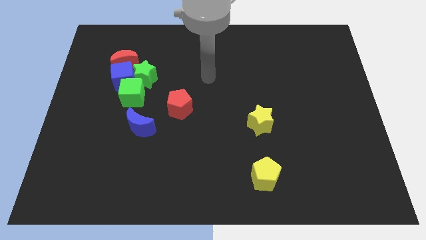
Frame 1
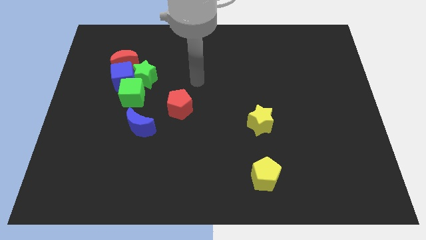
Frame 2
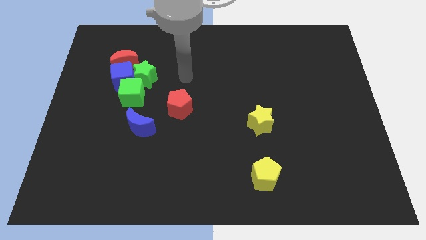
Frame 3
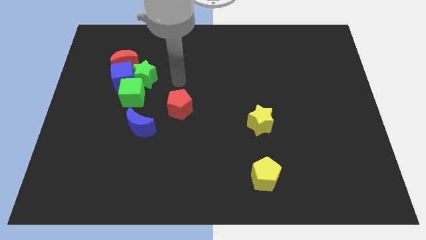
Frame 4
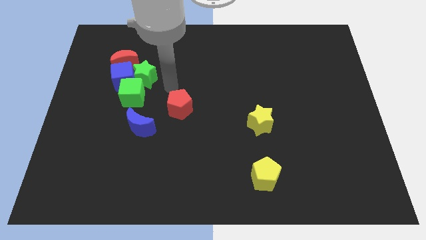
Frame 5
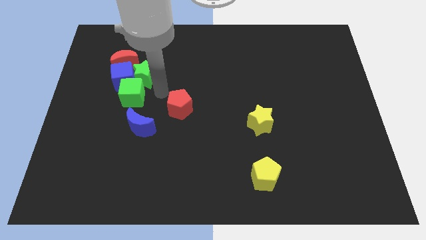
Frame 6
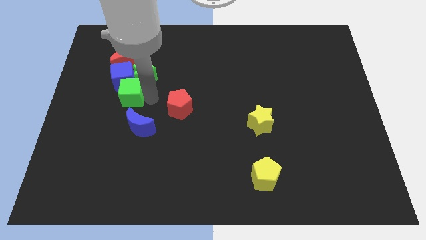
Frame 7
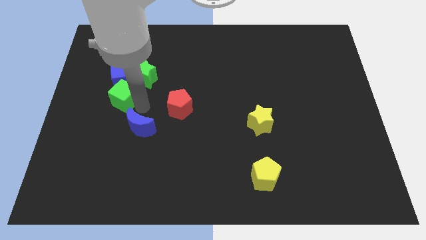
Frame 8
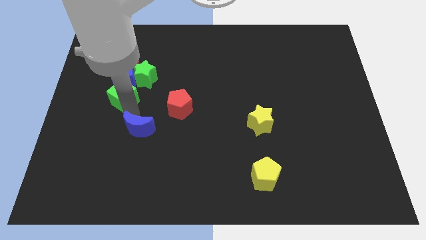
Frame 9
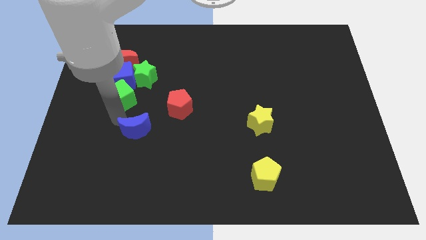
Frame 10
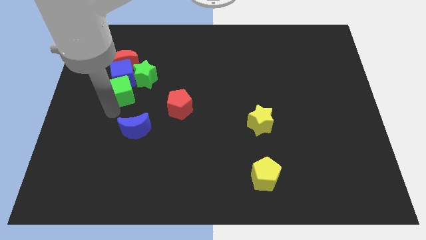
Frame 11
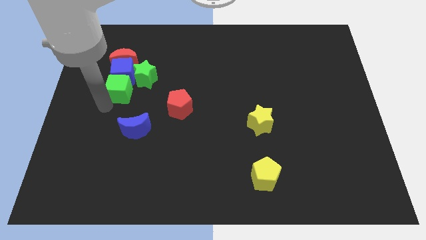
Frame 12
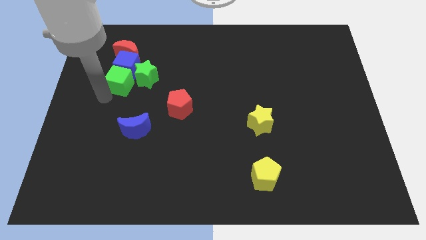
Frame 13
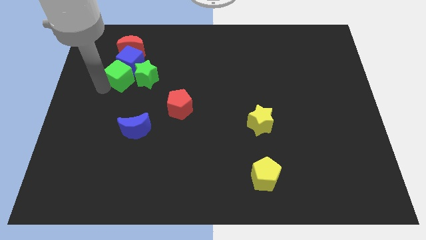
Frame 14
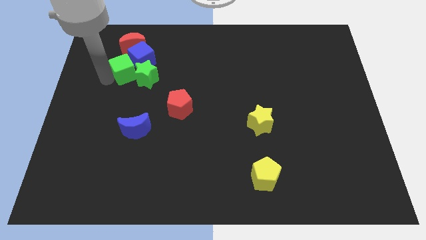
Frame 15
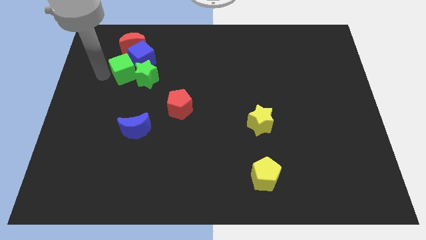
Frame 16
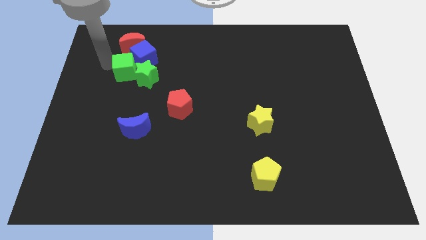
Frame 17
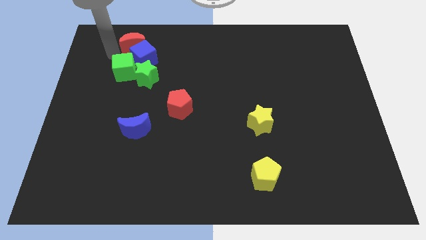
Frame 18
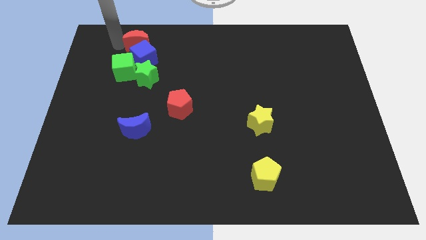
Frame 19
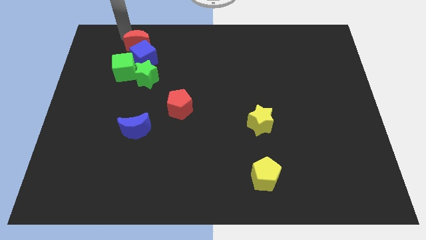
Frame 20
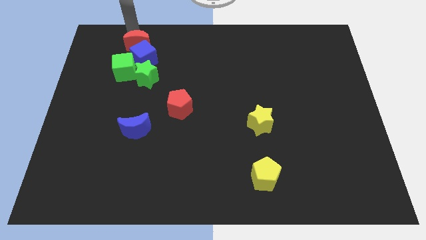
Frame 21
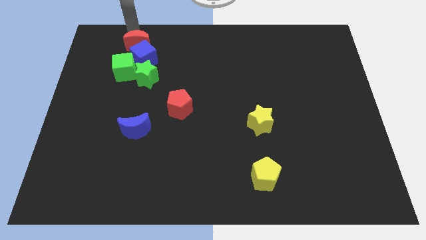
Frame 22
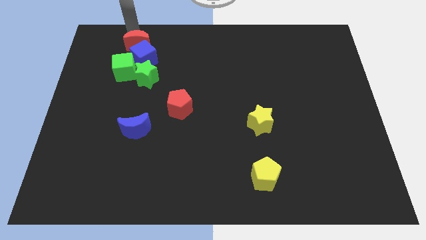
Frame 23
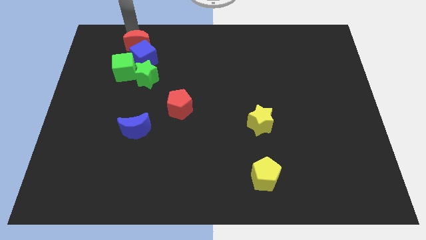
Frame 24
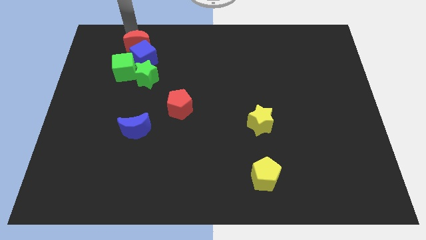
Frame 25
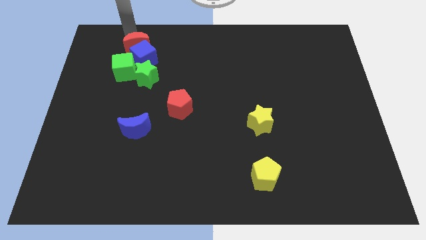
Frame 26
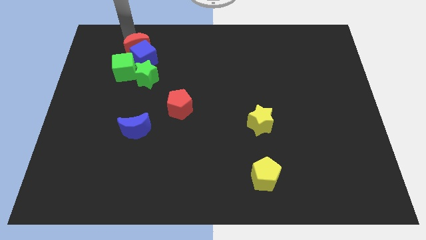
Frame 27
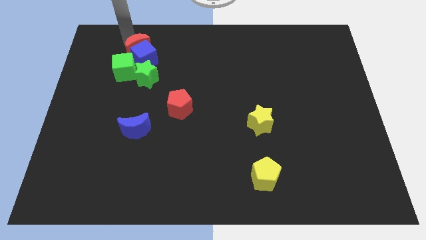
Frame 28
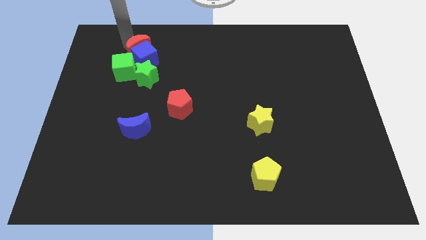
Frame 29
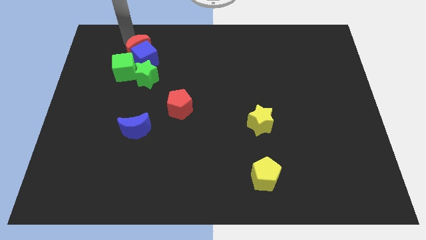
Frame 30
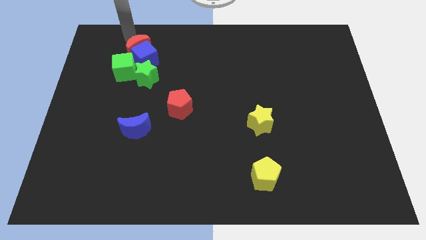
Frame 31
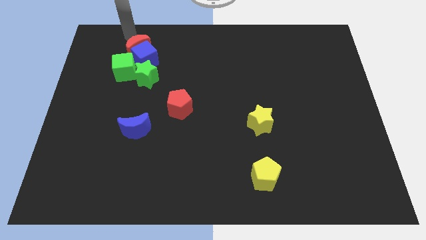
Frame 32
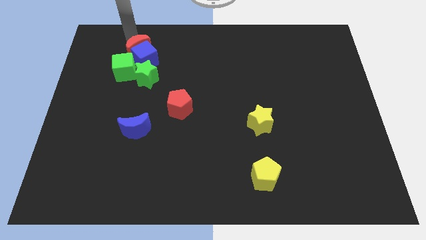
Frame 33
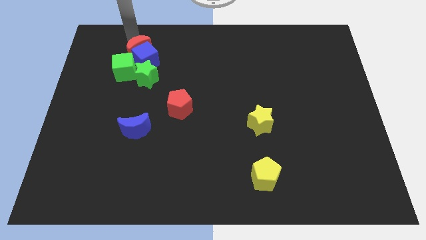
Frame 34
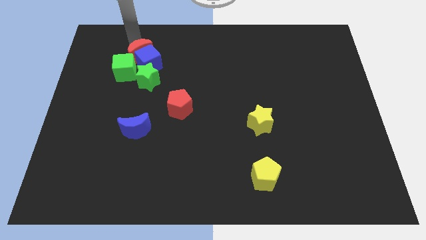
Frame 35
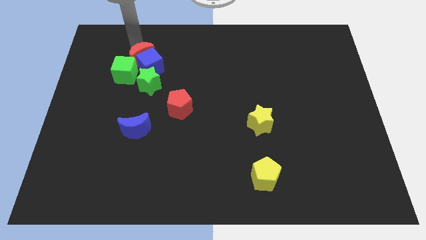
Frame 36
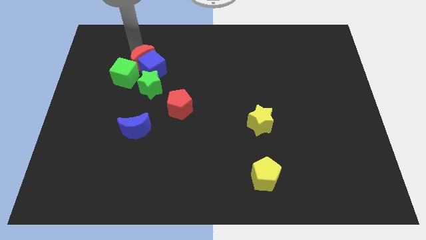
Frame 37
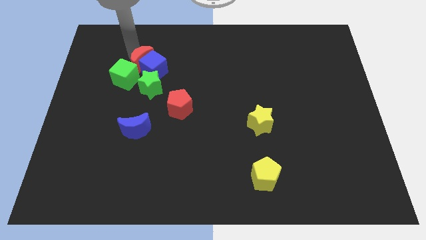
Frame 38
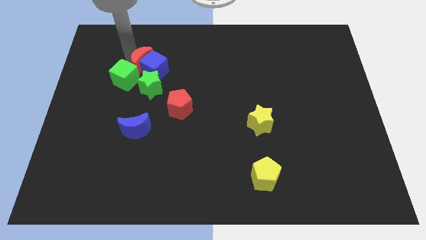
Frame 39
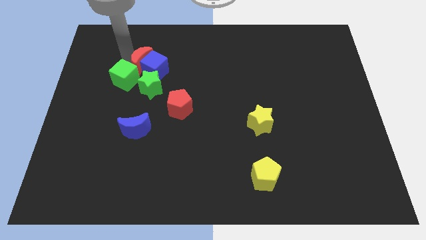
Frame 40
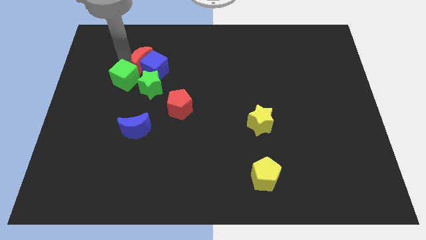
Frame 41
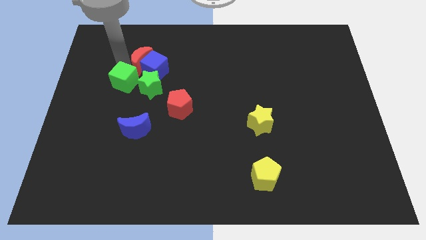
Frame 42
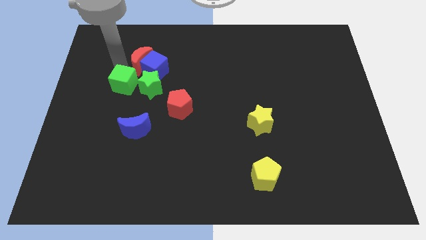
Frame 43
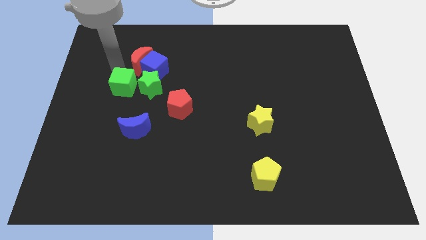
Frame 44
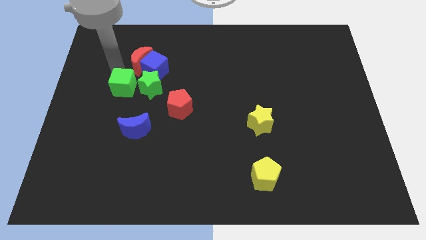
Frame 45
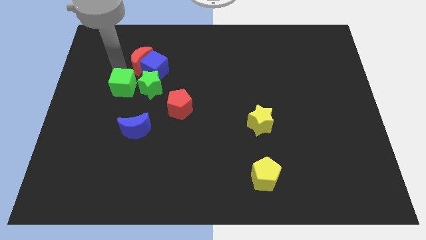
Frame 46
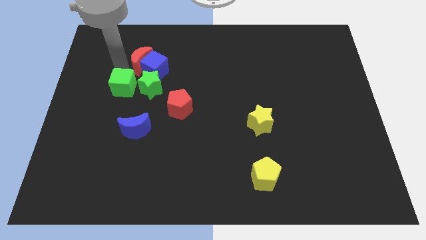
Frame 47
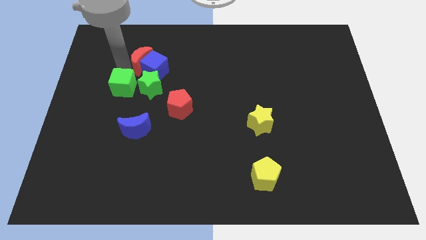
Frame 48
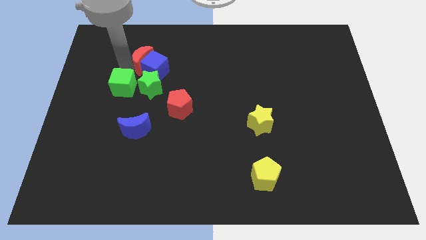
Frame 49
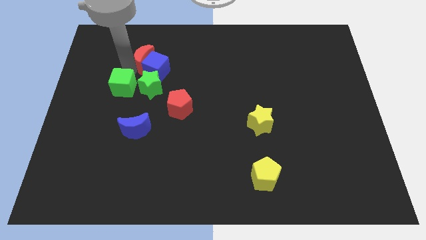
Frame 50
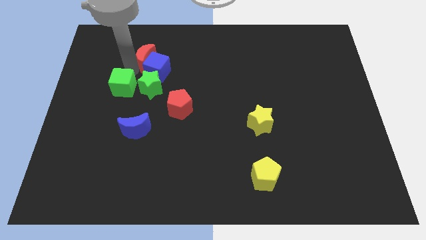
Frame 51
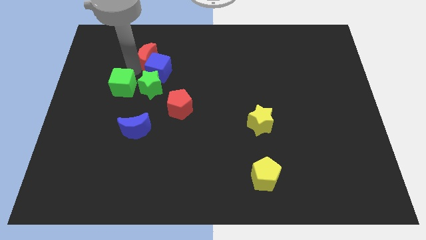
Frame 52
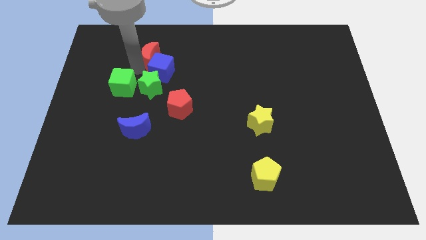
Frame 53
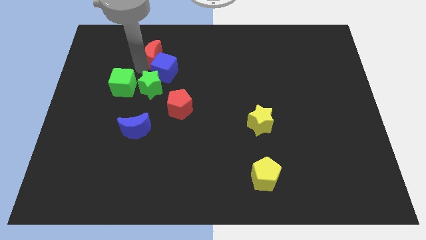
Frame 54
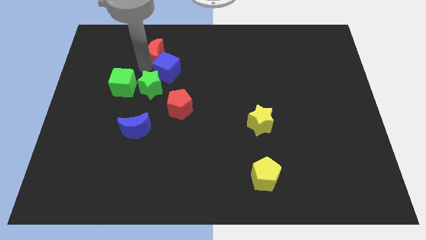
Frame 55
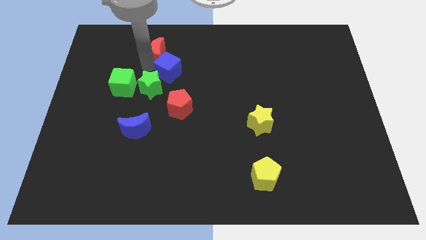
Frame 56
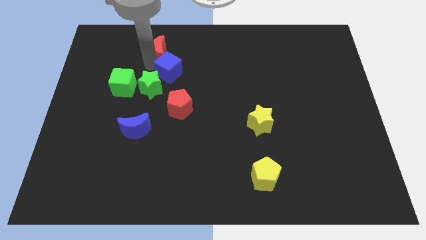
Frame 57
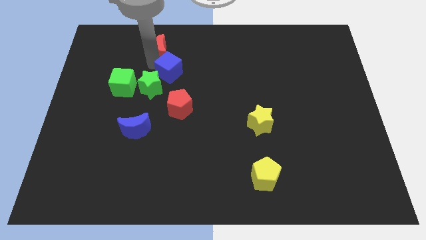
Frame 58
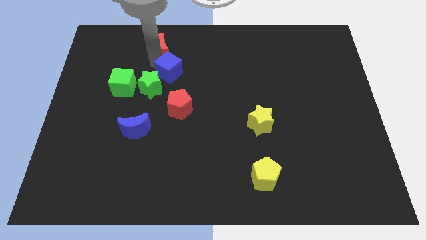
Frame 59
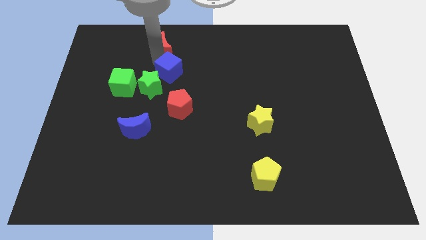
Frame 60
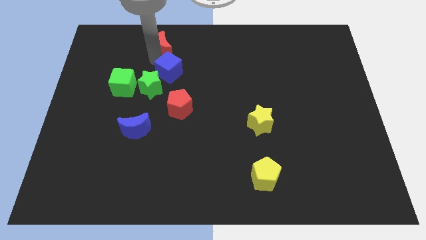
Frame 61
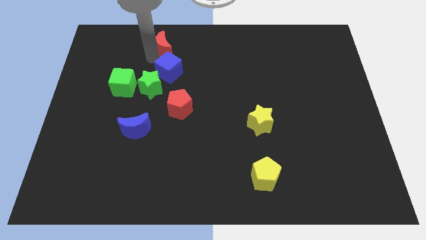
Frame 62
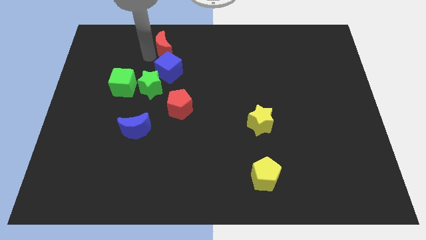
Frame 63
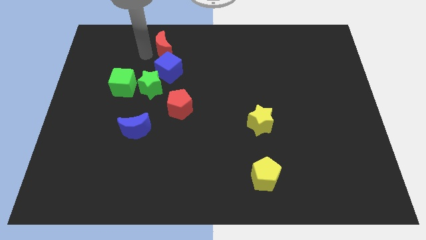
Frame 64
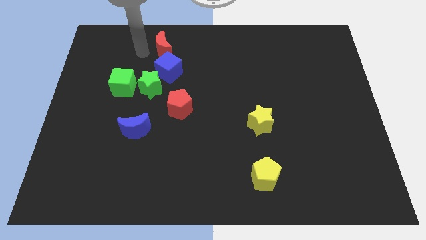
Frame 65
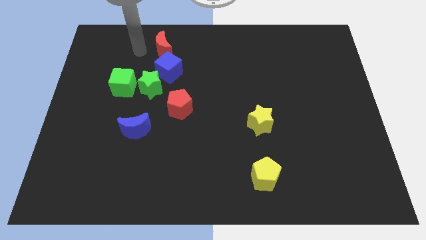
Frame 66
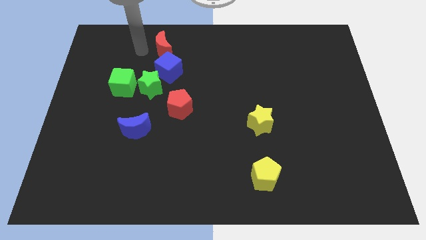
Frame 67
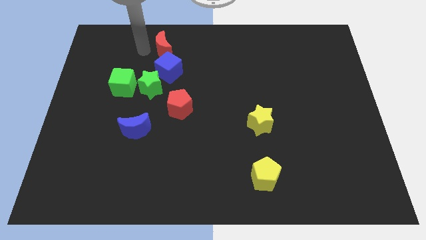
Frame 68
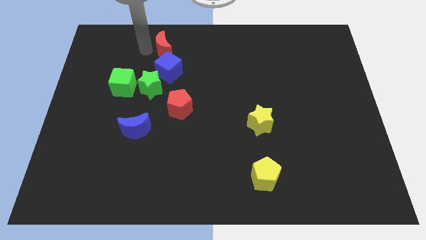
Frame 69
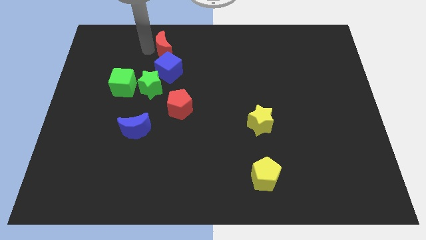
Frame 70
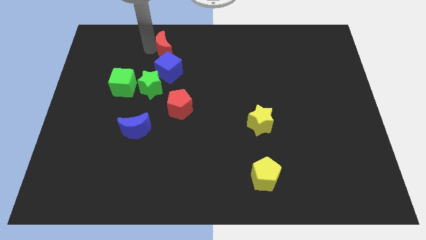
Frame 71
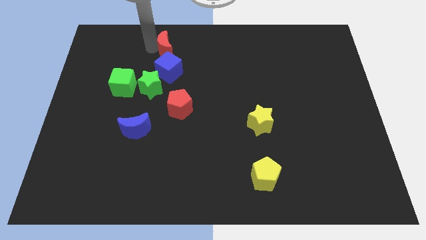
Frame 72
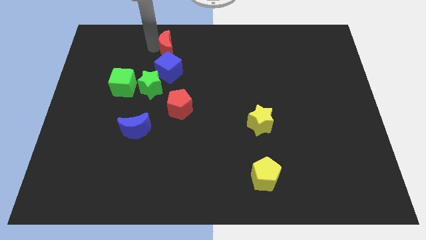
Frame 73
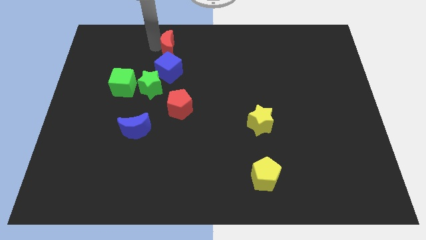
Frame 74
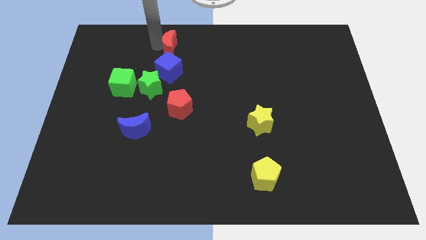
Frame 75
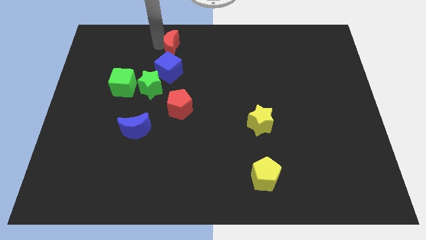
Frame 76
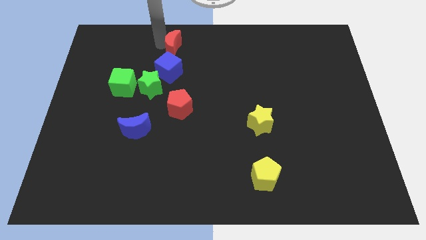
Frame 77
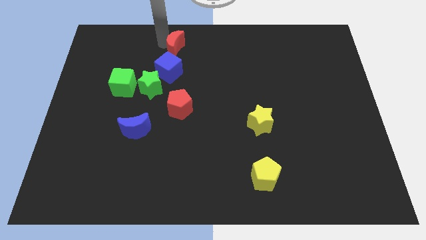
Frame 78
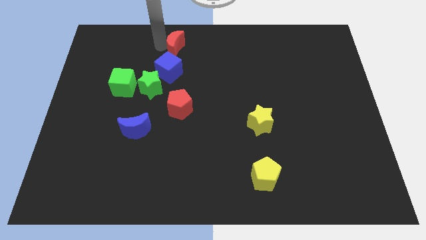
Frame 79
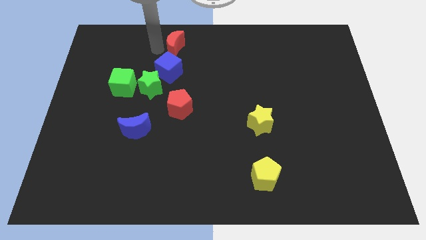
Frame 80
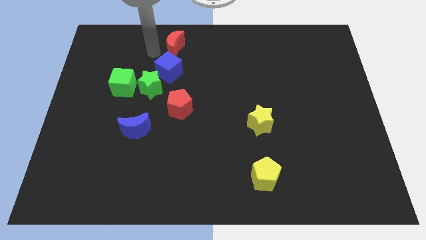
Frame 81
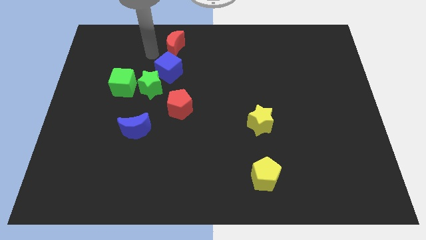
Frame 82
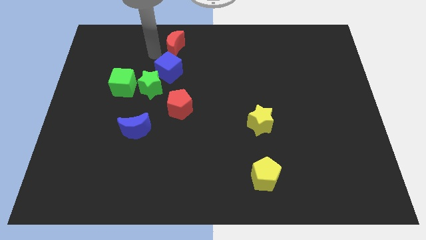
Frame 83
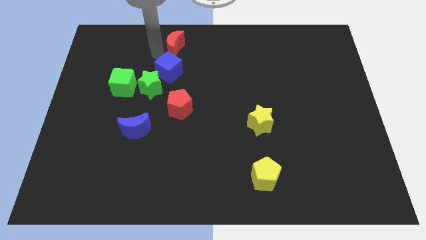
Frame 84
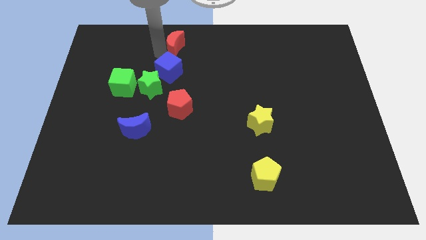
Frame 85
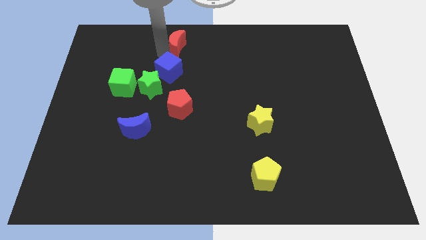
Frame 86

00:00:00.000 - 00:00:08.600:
put the red moon to the towards your base
